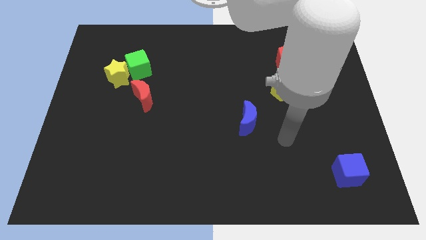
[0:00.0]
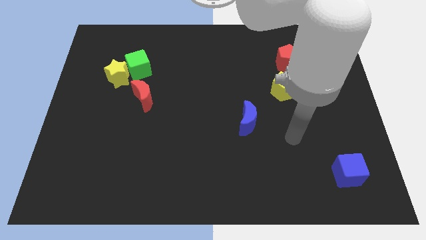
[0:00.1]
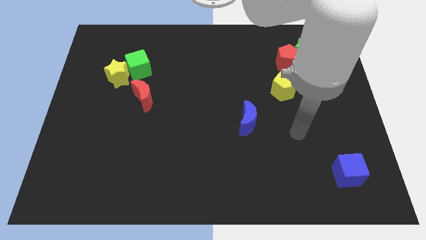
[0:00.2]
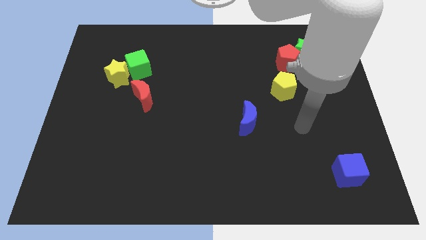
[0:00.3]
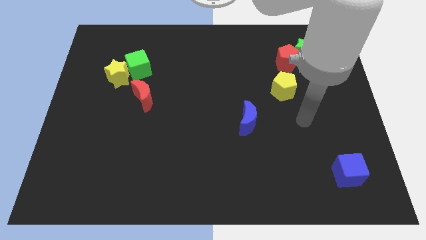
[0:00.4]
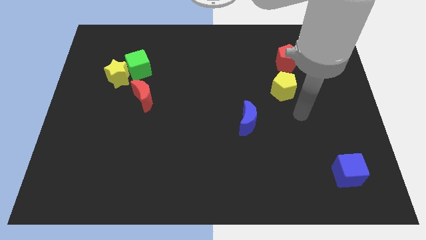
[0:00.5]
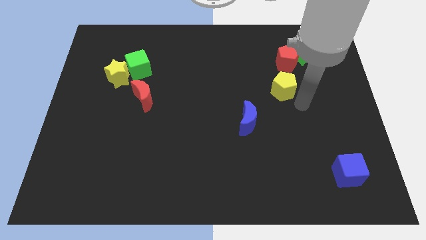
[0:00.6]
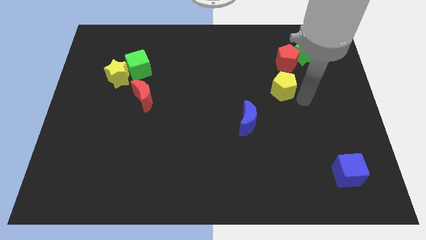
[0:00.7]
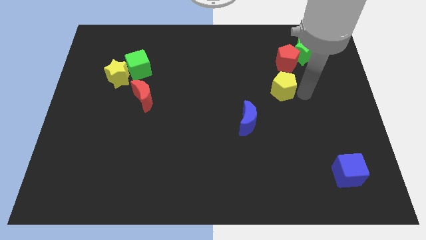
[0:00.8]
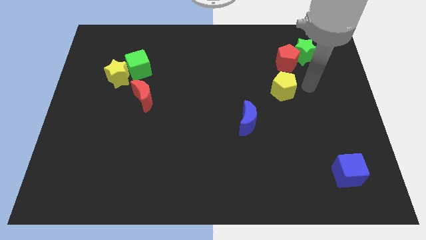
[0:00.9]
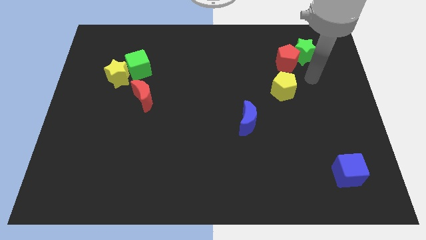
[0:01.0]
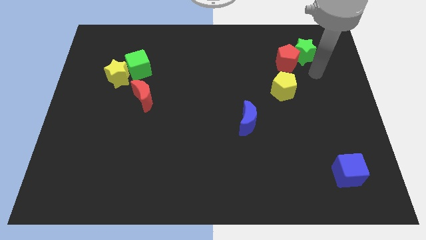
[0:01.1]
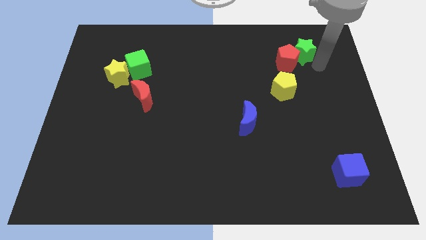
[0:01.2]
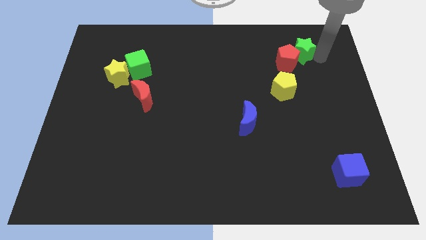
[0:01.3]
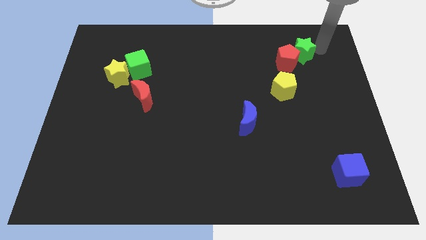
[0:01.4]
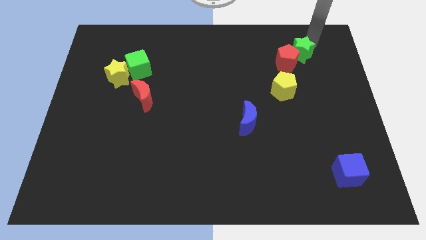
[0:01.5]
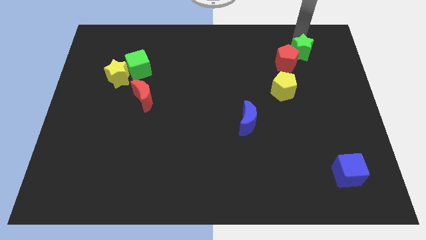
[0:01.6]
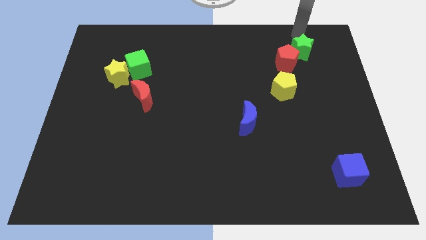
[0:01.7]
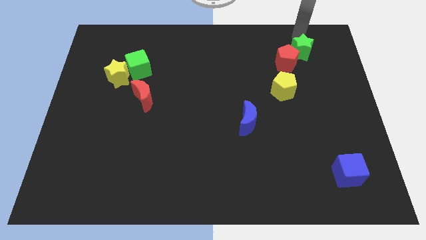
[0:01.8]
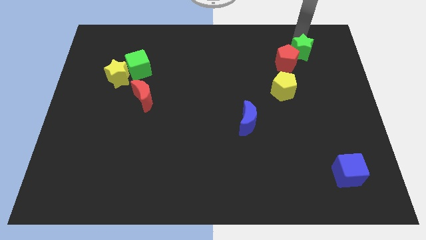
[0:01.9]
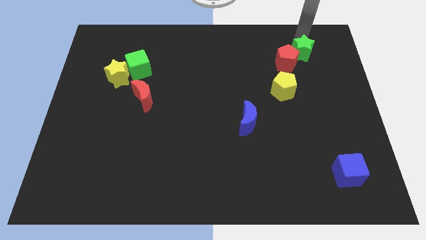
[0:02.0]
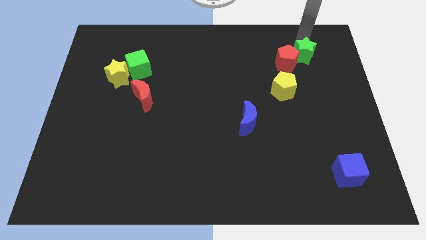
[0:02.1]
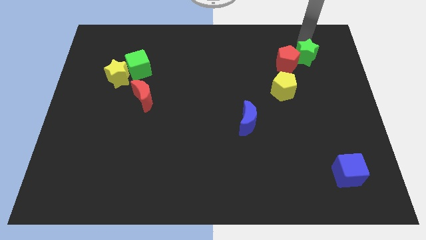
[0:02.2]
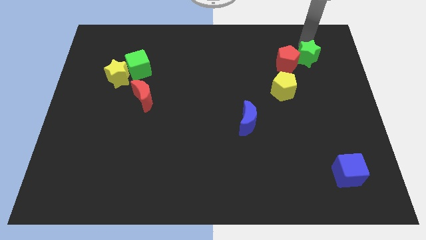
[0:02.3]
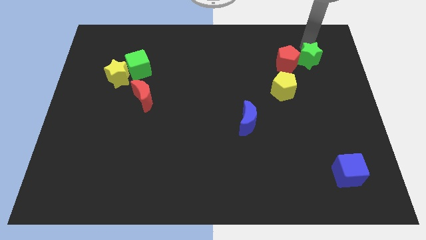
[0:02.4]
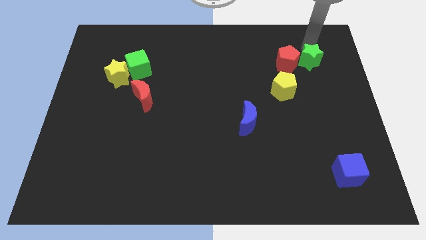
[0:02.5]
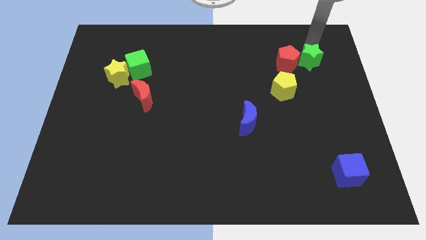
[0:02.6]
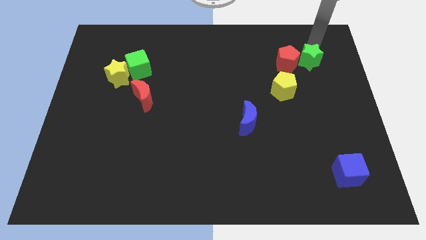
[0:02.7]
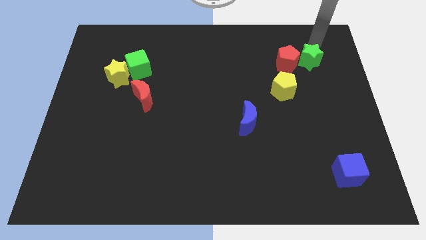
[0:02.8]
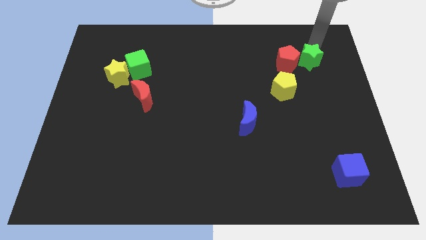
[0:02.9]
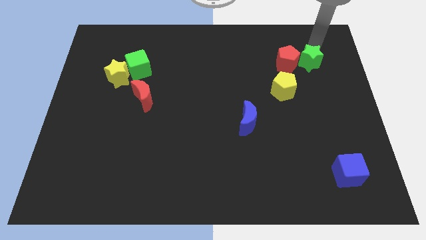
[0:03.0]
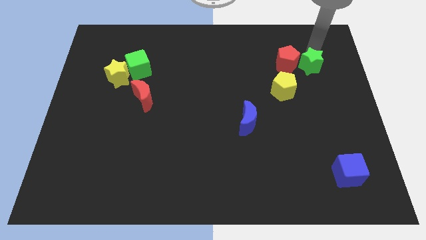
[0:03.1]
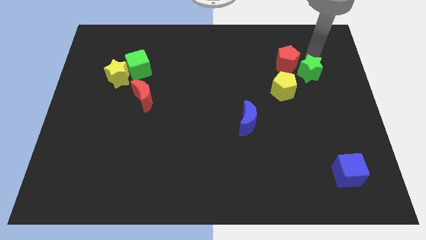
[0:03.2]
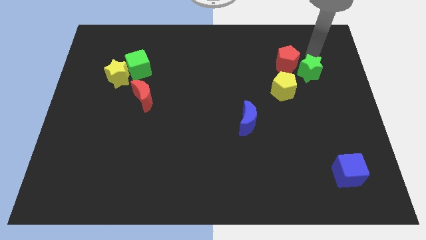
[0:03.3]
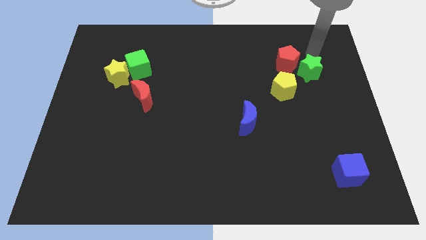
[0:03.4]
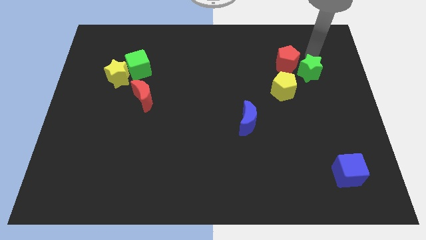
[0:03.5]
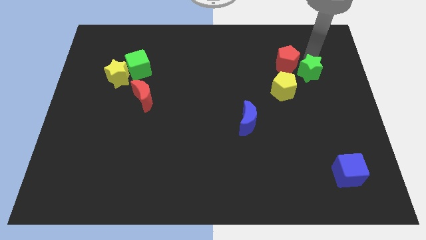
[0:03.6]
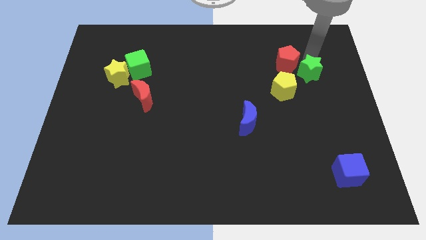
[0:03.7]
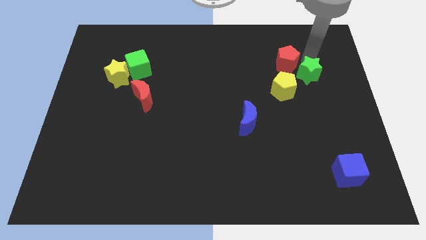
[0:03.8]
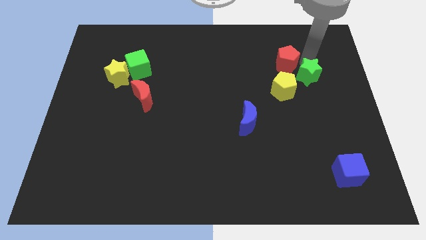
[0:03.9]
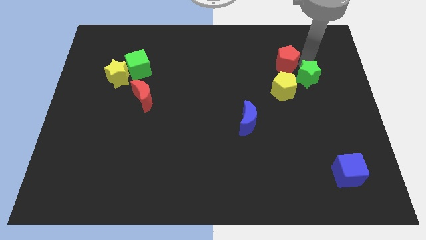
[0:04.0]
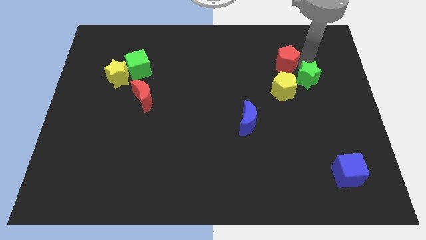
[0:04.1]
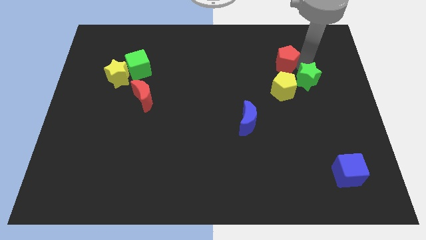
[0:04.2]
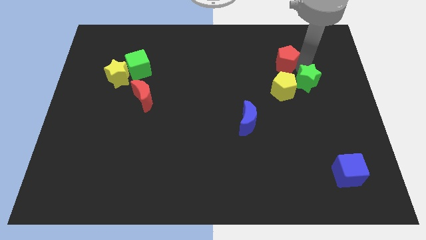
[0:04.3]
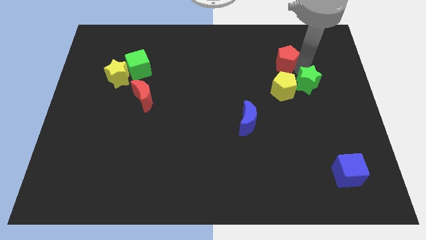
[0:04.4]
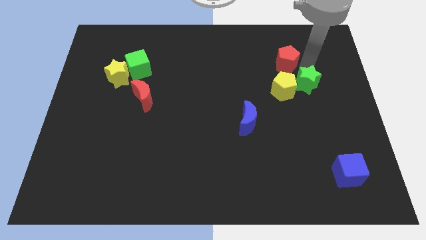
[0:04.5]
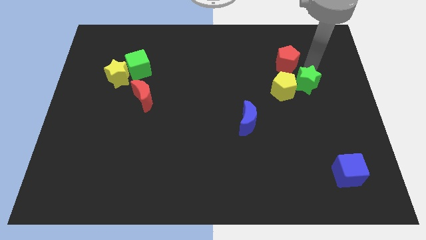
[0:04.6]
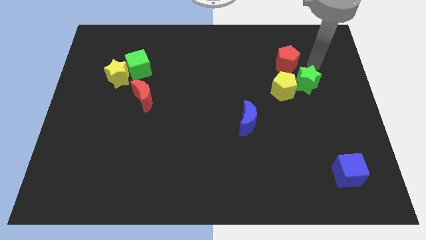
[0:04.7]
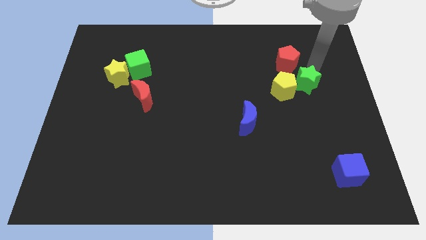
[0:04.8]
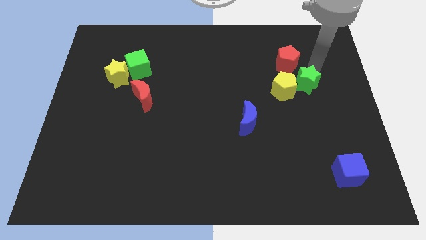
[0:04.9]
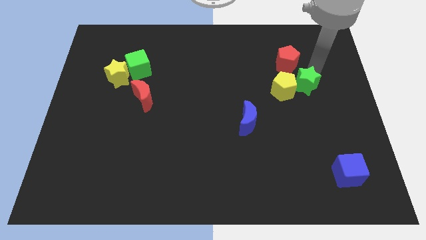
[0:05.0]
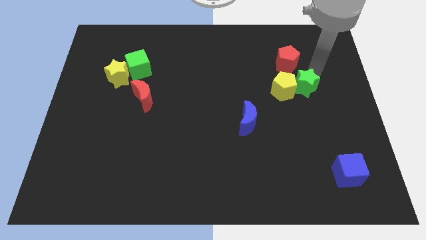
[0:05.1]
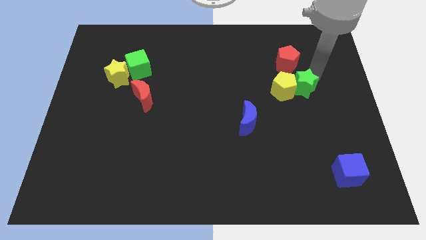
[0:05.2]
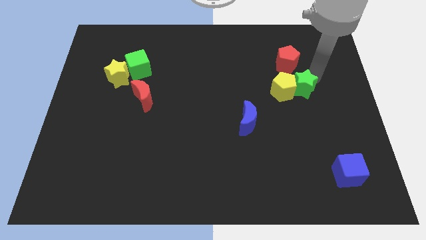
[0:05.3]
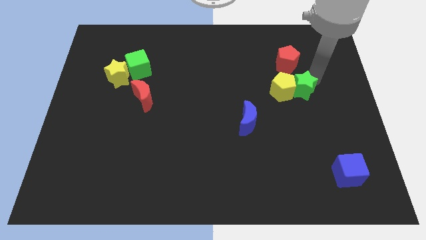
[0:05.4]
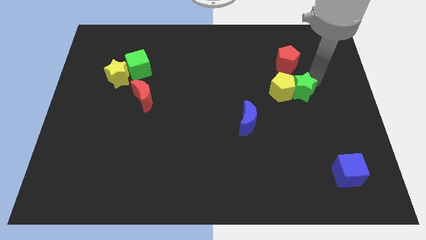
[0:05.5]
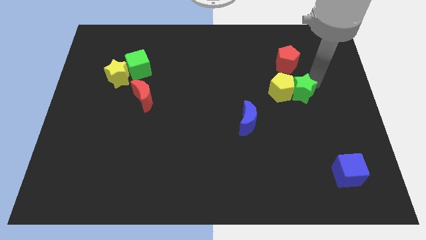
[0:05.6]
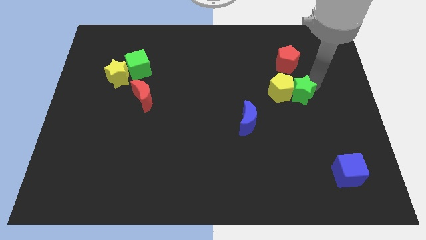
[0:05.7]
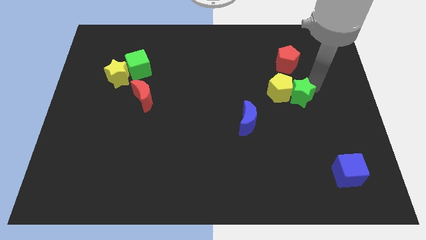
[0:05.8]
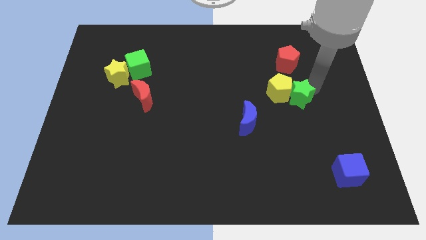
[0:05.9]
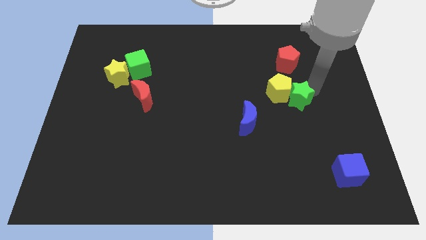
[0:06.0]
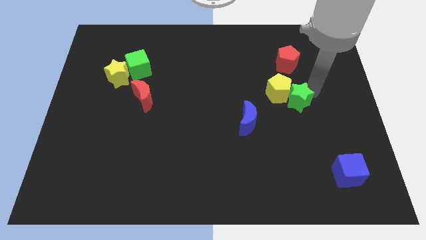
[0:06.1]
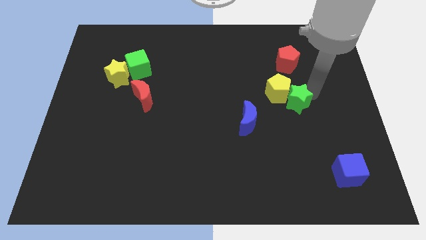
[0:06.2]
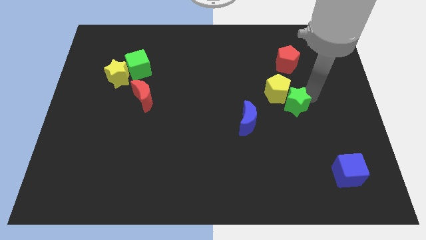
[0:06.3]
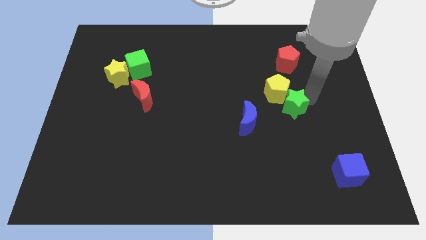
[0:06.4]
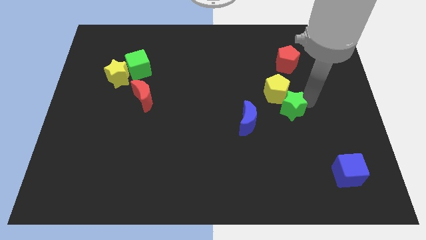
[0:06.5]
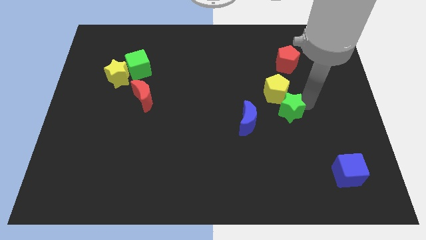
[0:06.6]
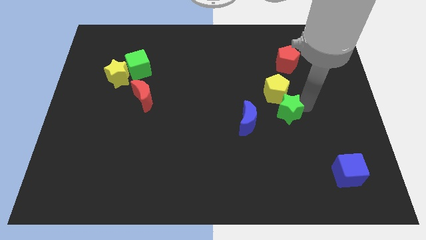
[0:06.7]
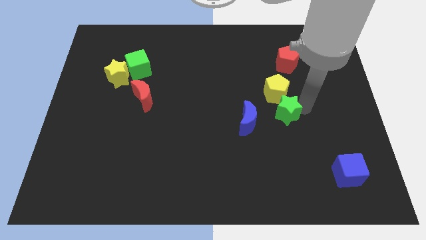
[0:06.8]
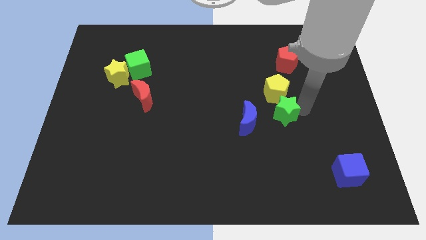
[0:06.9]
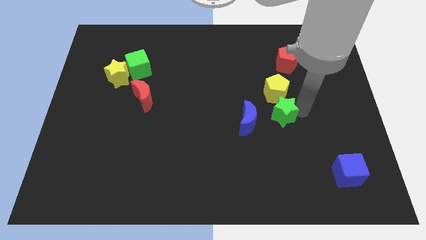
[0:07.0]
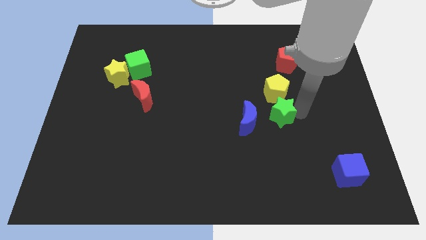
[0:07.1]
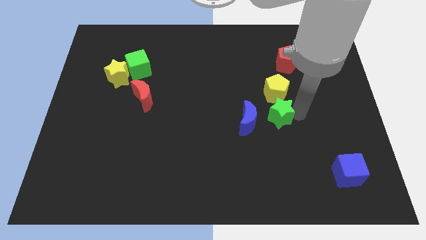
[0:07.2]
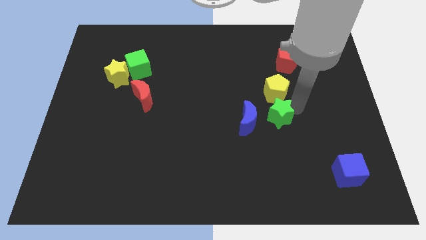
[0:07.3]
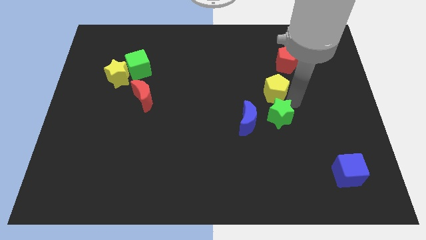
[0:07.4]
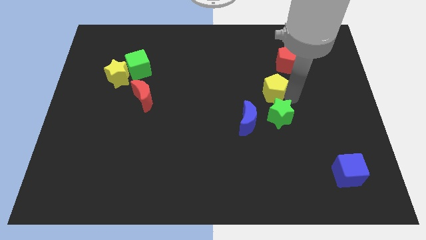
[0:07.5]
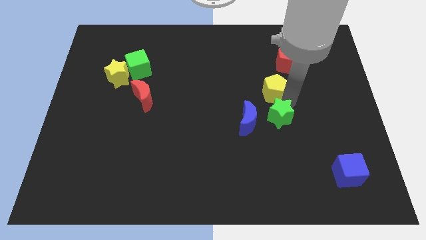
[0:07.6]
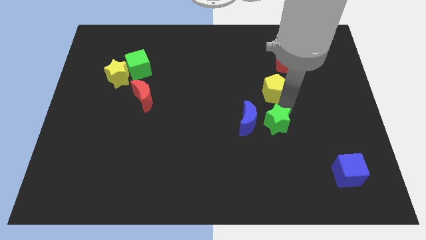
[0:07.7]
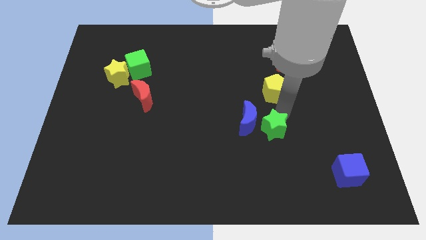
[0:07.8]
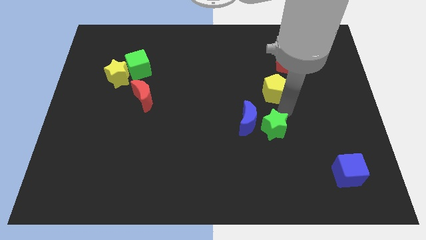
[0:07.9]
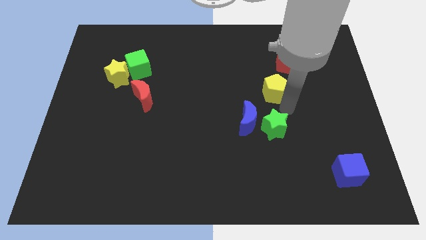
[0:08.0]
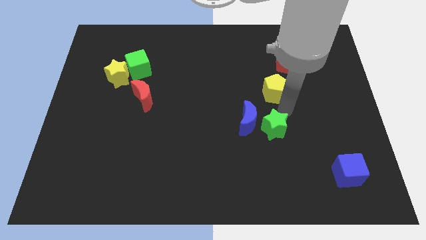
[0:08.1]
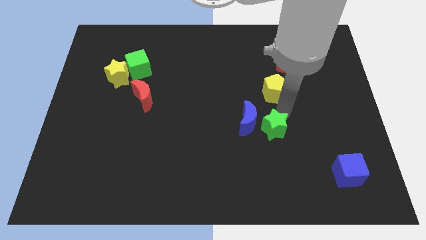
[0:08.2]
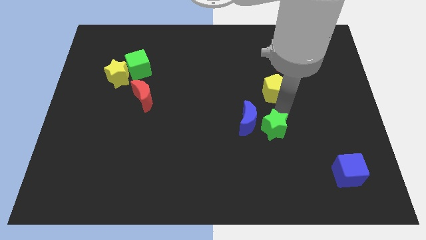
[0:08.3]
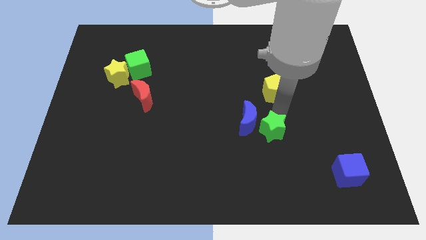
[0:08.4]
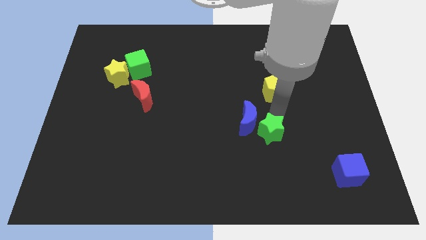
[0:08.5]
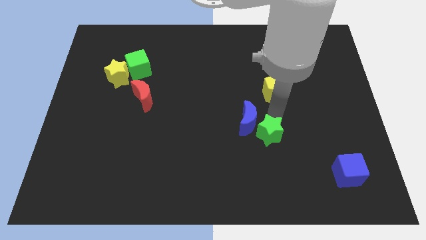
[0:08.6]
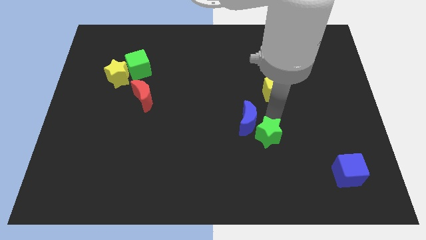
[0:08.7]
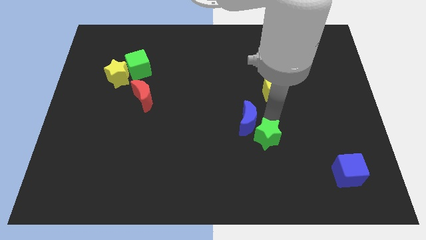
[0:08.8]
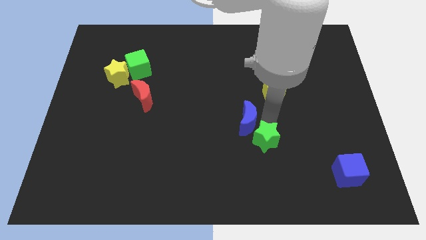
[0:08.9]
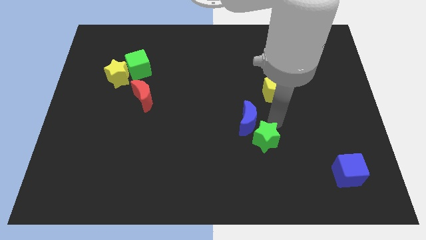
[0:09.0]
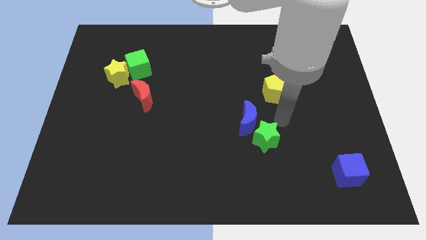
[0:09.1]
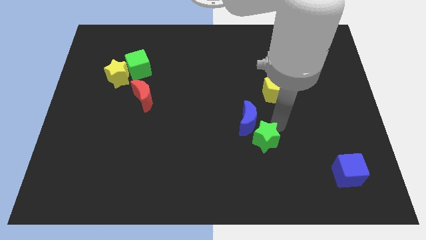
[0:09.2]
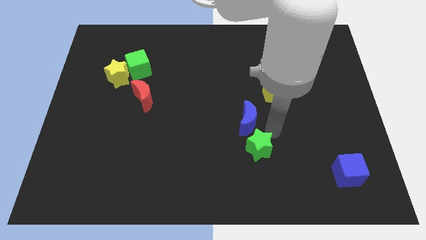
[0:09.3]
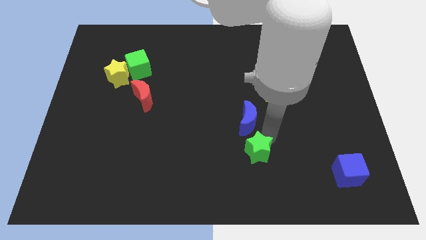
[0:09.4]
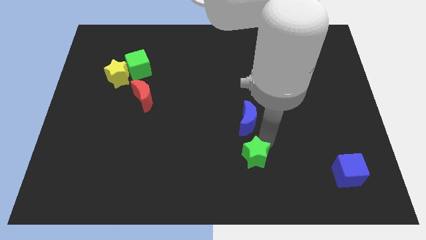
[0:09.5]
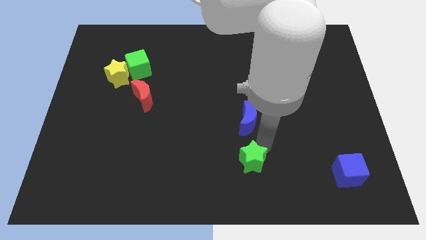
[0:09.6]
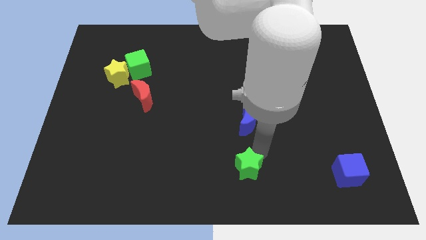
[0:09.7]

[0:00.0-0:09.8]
put the green star to the bottom side
